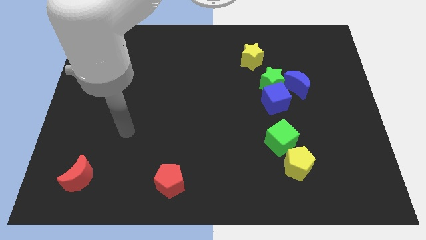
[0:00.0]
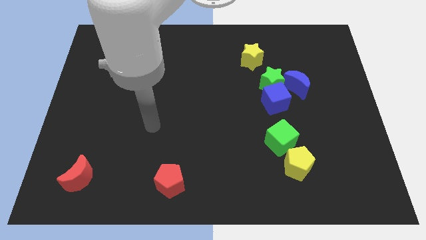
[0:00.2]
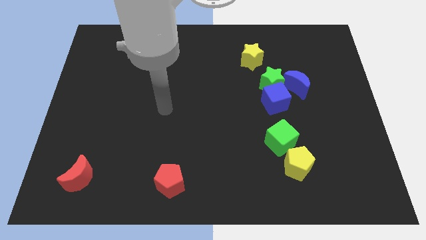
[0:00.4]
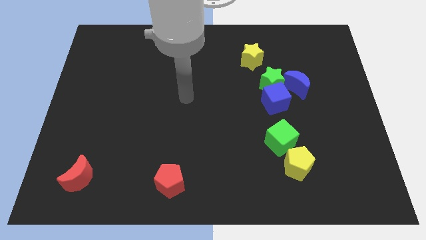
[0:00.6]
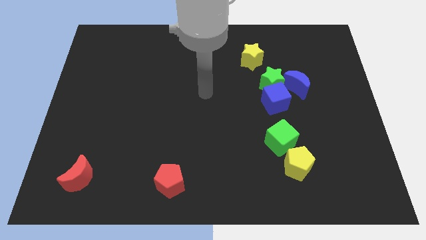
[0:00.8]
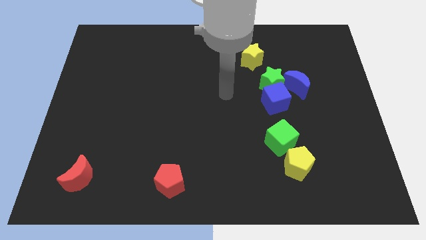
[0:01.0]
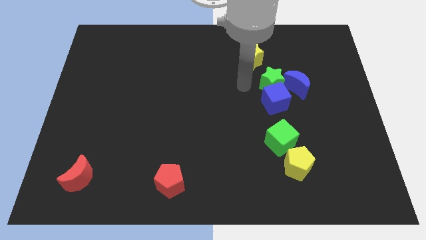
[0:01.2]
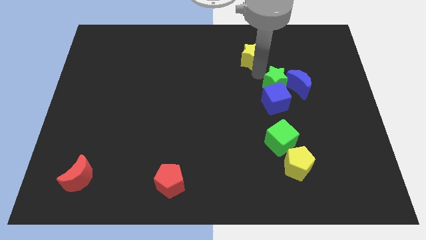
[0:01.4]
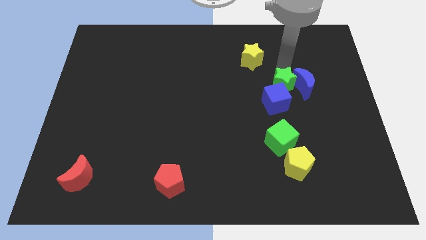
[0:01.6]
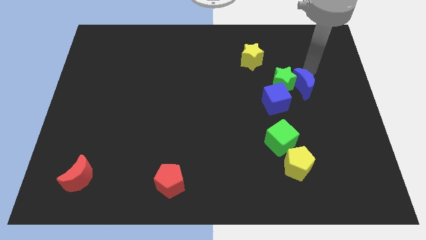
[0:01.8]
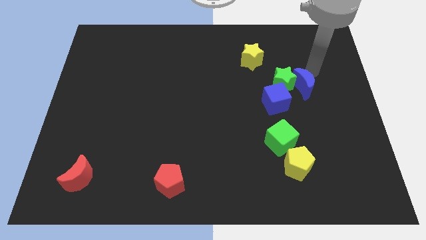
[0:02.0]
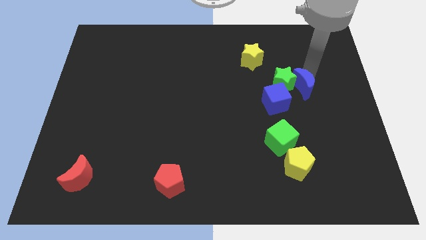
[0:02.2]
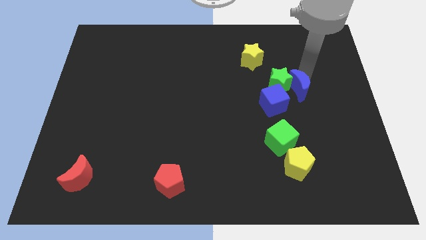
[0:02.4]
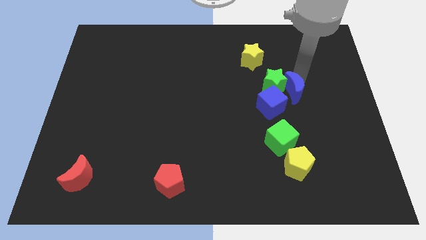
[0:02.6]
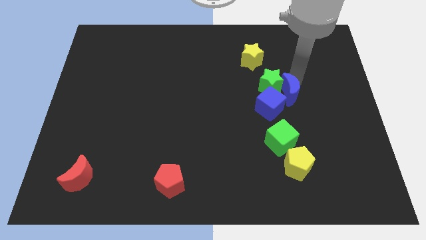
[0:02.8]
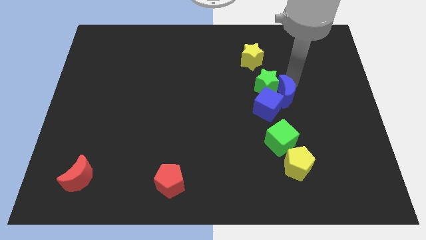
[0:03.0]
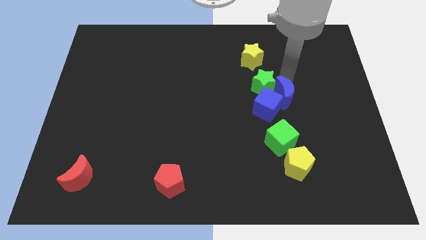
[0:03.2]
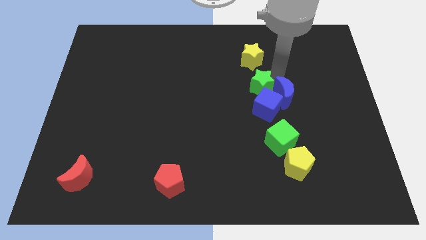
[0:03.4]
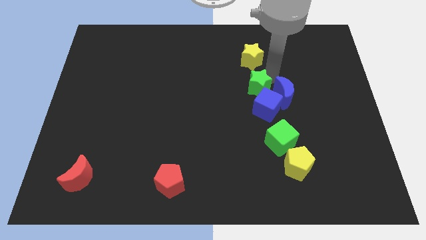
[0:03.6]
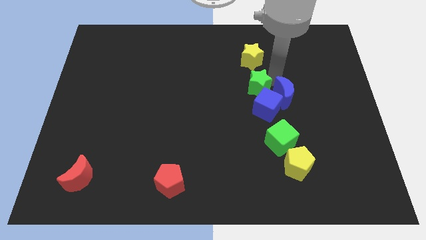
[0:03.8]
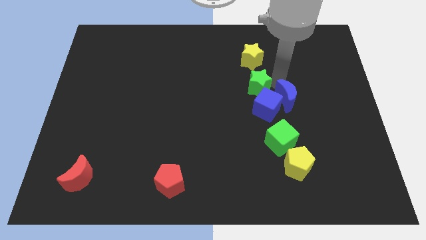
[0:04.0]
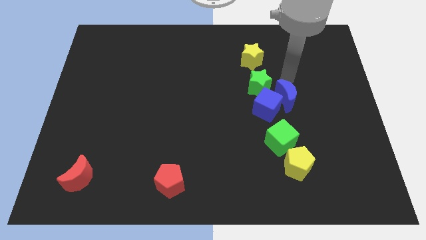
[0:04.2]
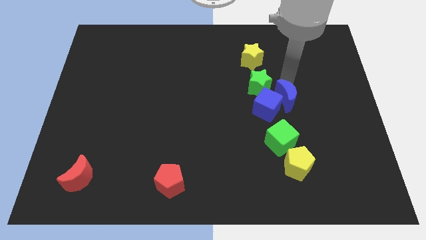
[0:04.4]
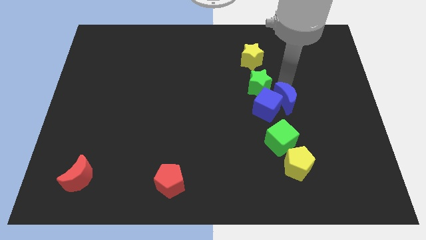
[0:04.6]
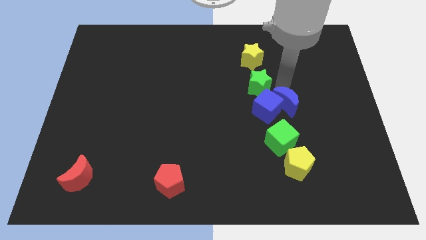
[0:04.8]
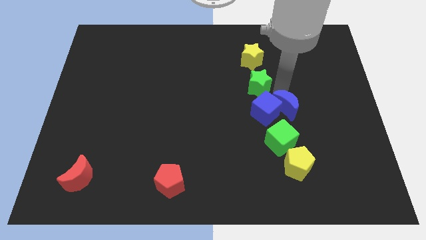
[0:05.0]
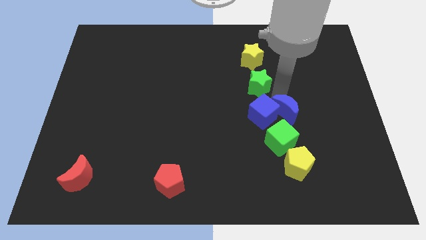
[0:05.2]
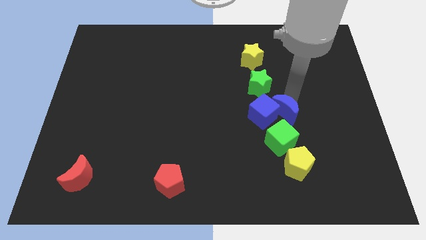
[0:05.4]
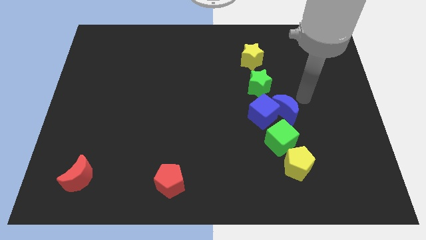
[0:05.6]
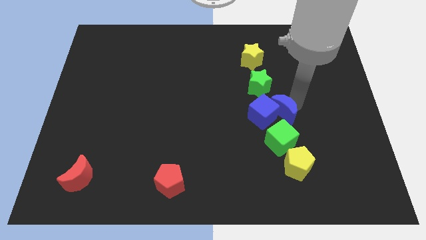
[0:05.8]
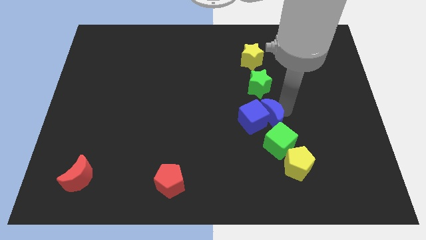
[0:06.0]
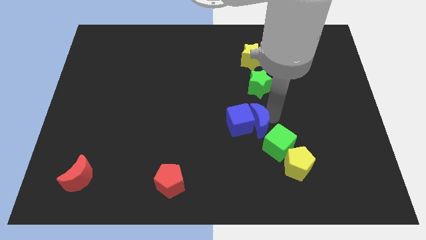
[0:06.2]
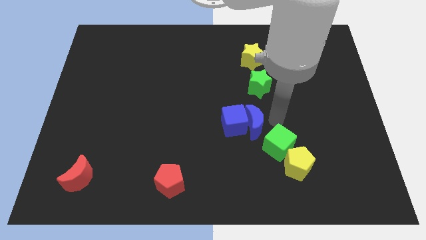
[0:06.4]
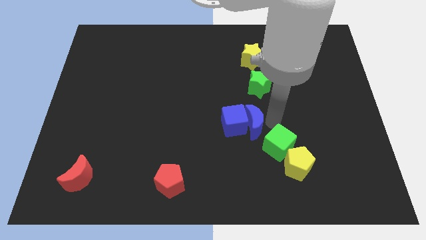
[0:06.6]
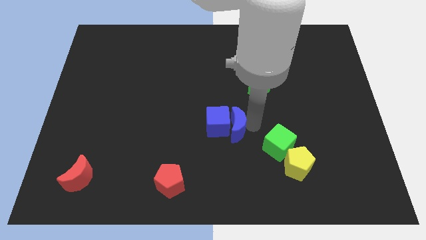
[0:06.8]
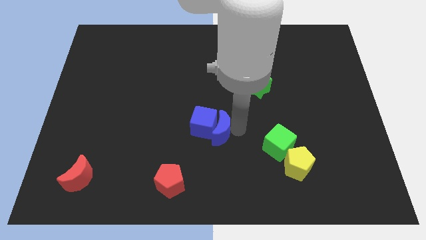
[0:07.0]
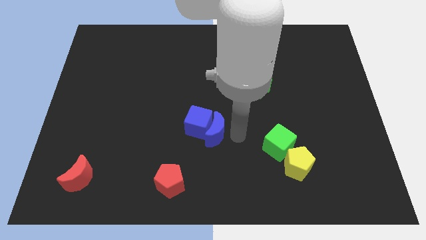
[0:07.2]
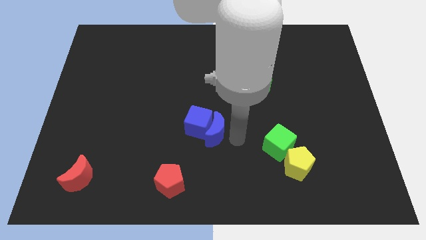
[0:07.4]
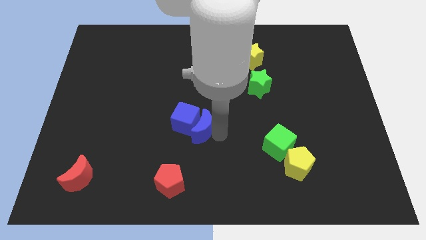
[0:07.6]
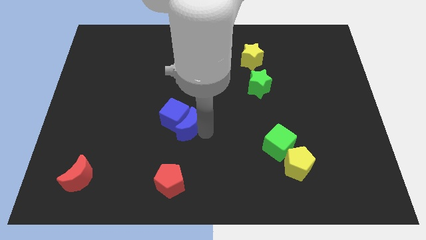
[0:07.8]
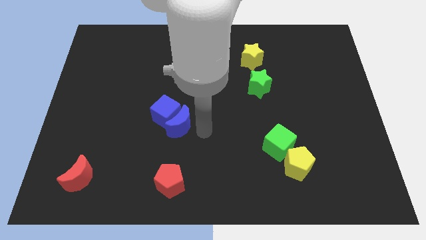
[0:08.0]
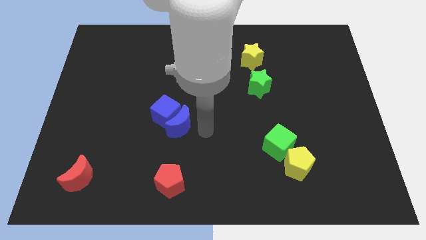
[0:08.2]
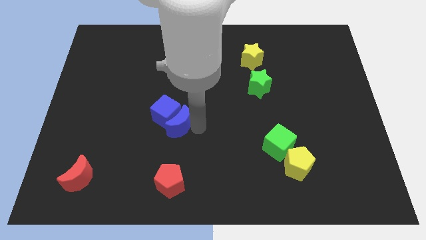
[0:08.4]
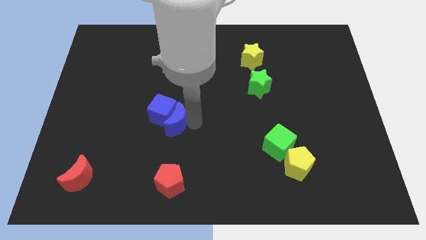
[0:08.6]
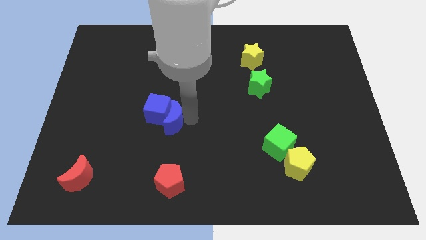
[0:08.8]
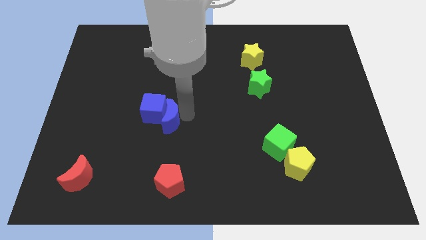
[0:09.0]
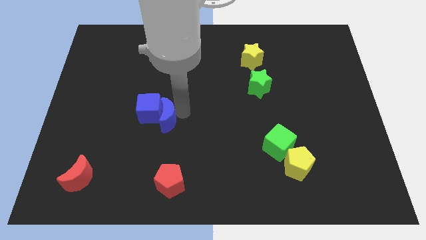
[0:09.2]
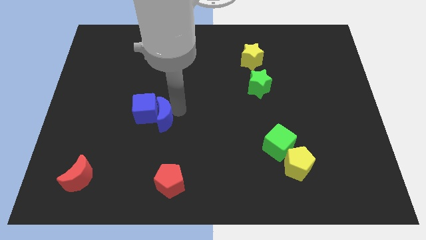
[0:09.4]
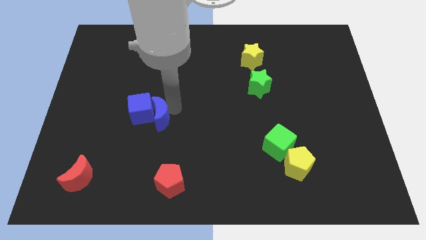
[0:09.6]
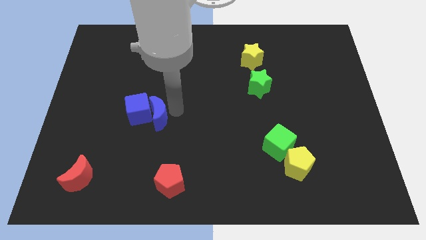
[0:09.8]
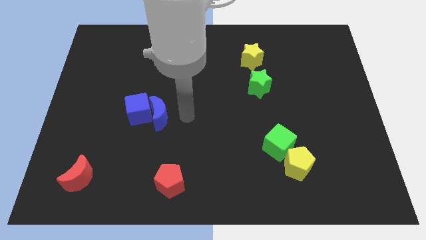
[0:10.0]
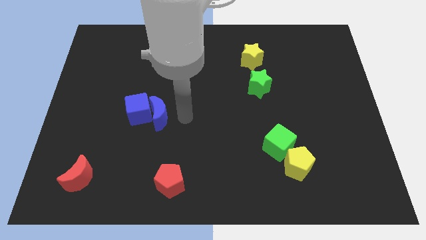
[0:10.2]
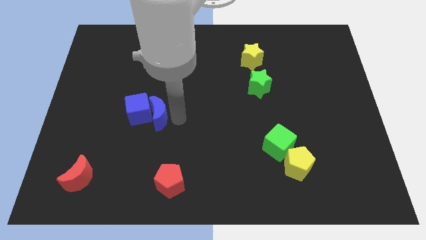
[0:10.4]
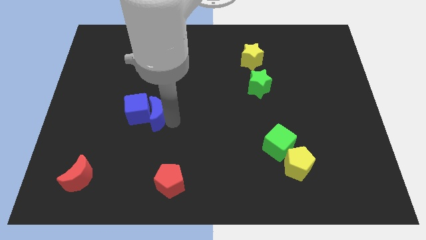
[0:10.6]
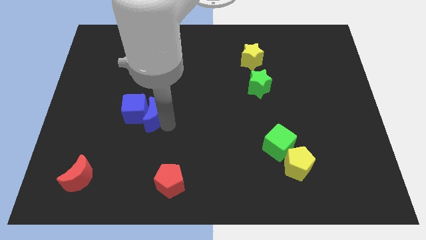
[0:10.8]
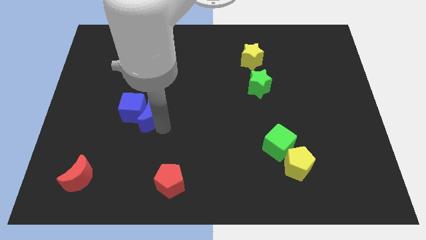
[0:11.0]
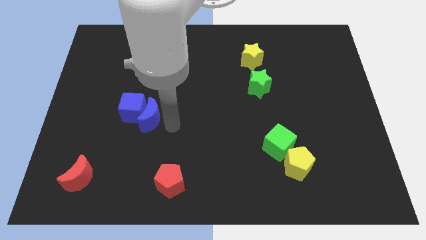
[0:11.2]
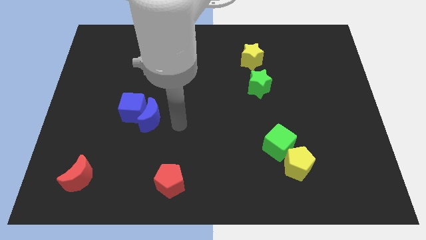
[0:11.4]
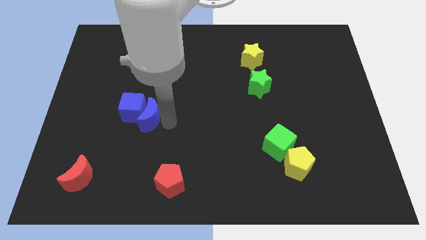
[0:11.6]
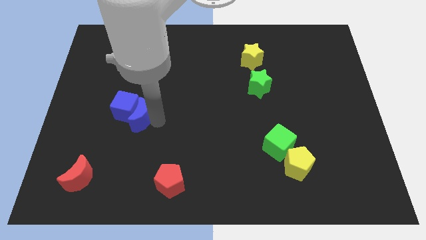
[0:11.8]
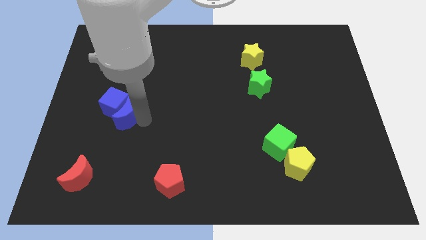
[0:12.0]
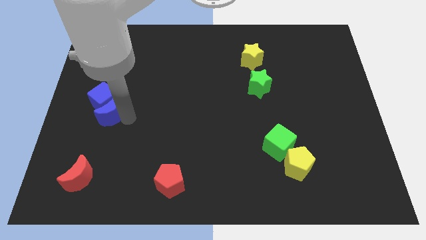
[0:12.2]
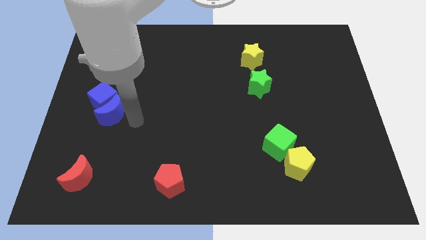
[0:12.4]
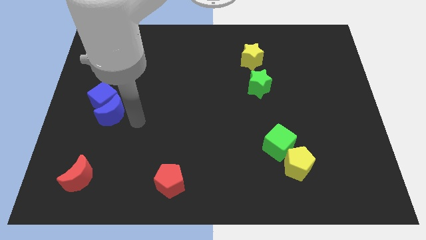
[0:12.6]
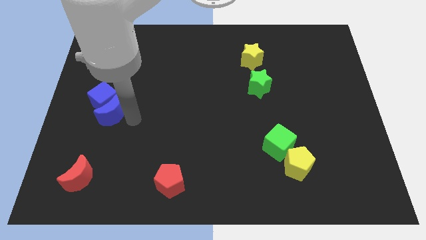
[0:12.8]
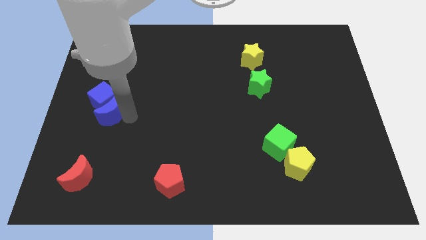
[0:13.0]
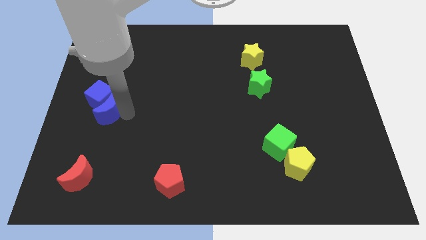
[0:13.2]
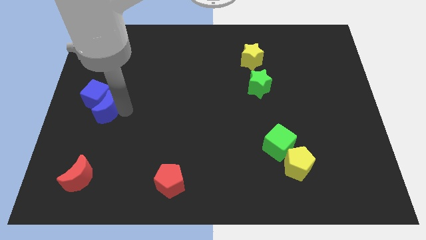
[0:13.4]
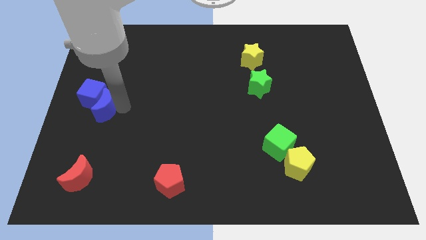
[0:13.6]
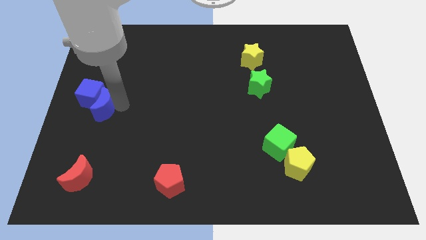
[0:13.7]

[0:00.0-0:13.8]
slide the blue moon to the left side

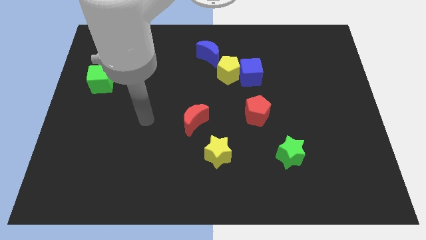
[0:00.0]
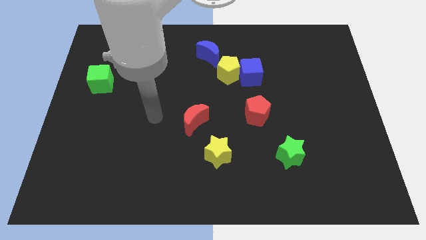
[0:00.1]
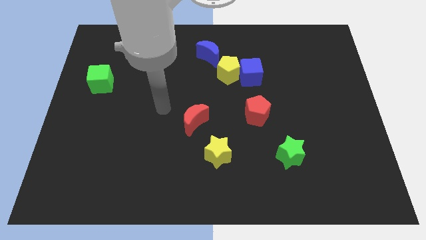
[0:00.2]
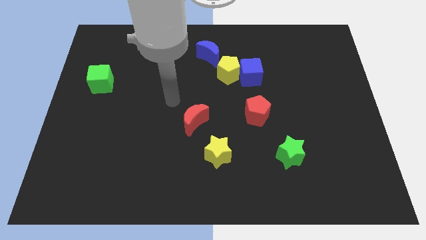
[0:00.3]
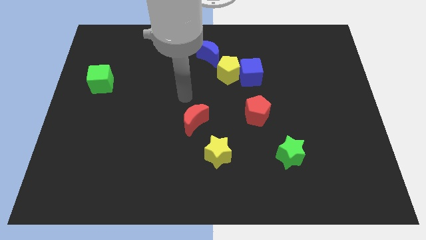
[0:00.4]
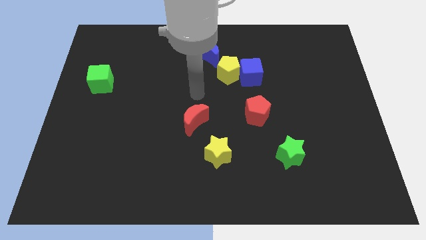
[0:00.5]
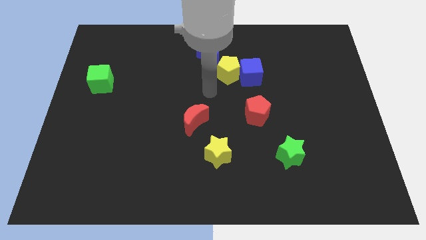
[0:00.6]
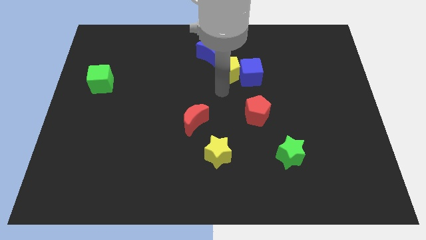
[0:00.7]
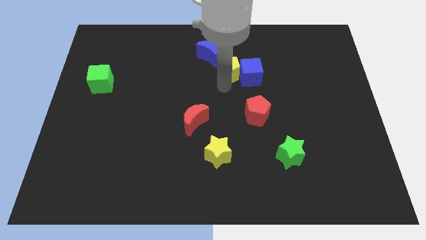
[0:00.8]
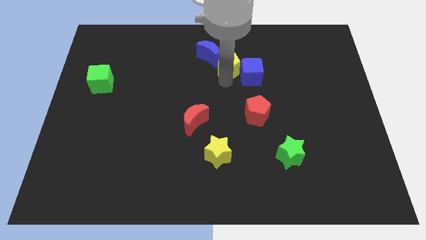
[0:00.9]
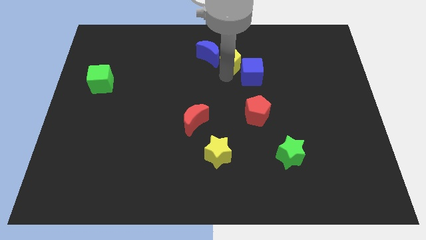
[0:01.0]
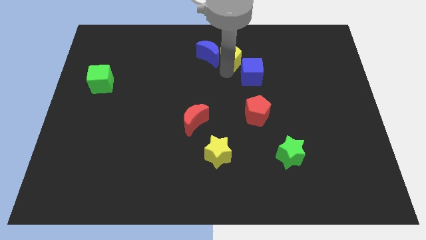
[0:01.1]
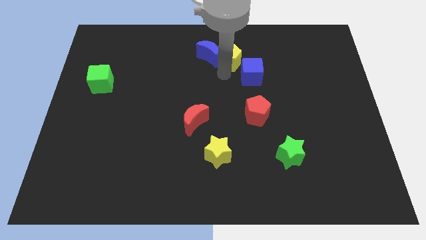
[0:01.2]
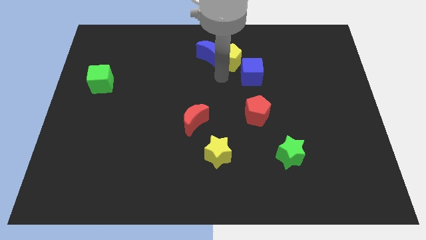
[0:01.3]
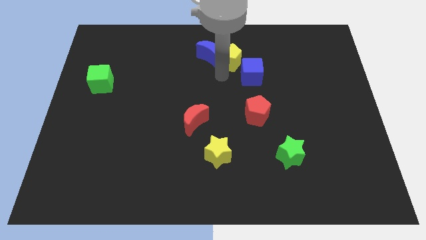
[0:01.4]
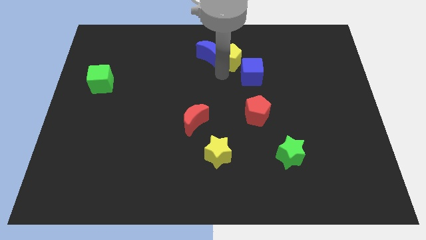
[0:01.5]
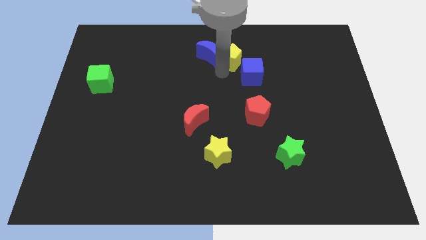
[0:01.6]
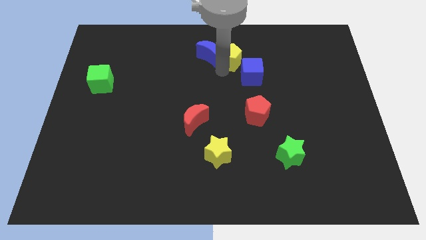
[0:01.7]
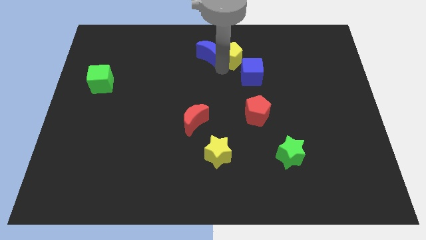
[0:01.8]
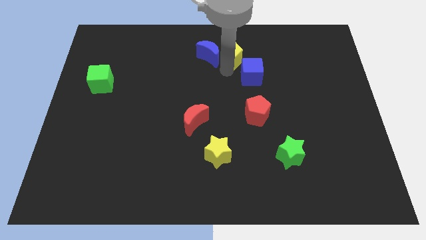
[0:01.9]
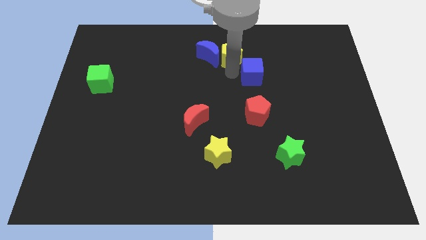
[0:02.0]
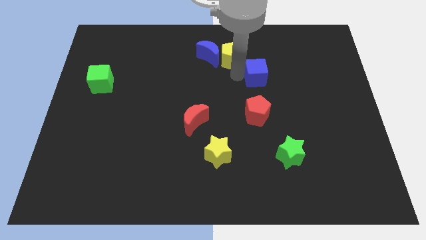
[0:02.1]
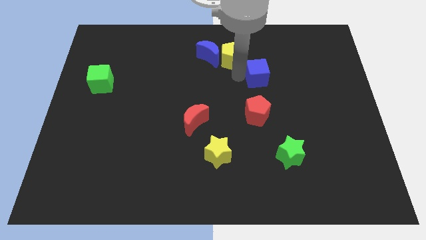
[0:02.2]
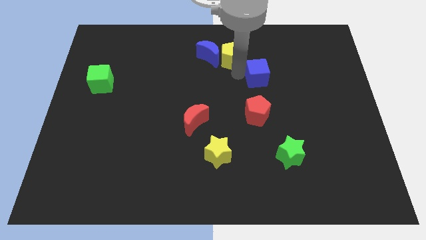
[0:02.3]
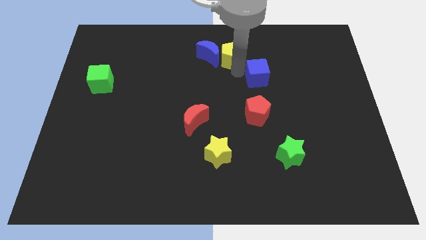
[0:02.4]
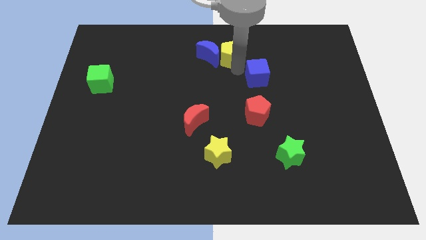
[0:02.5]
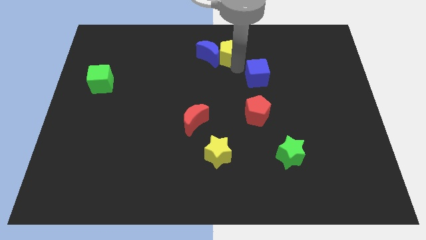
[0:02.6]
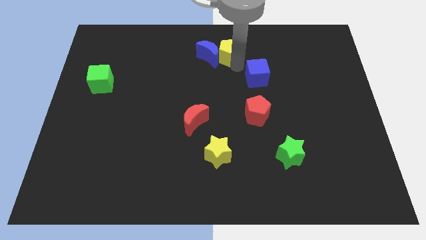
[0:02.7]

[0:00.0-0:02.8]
put the yellow pentagon to the towards your base
